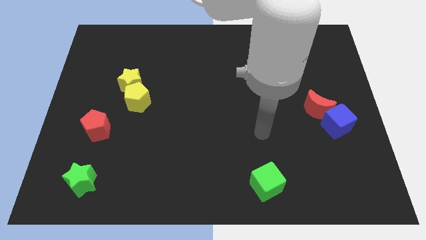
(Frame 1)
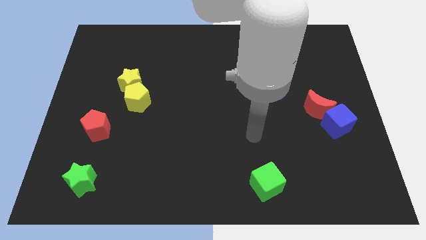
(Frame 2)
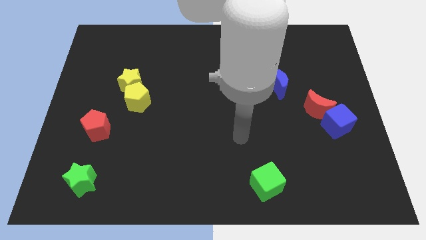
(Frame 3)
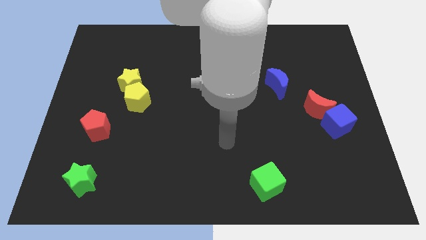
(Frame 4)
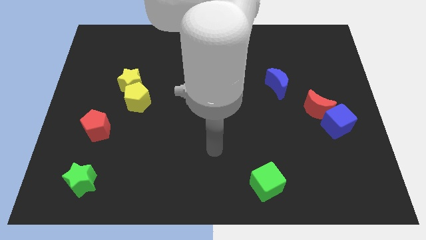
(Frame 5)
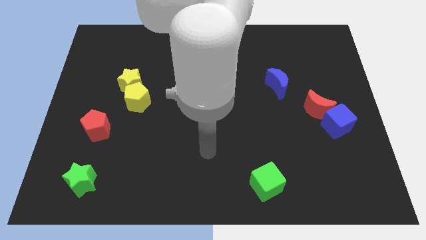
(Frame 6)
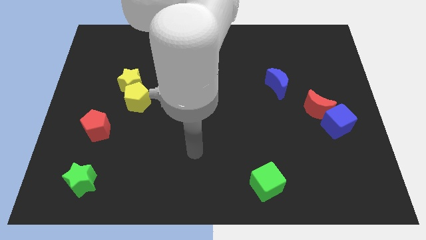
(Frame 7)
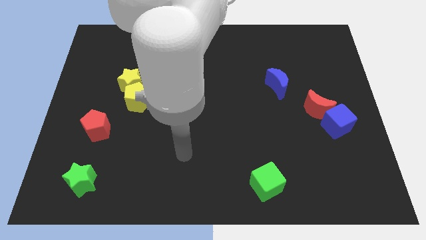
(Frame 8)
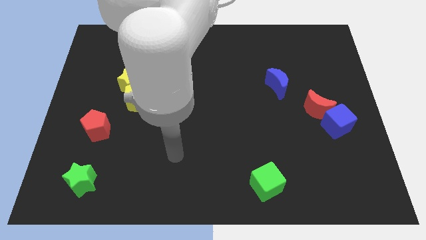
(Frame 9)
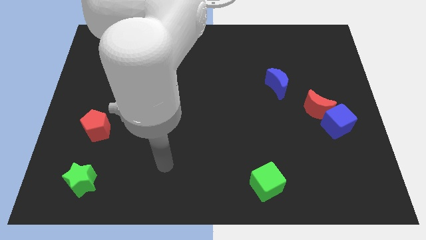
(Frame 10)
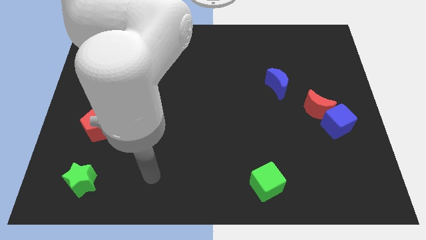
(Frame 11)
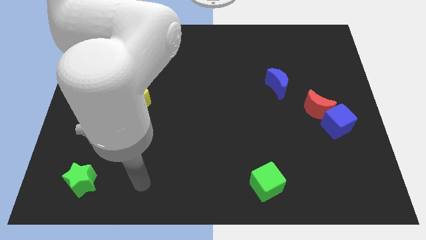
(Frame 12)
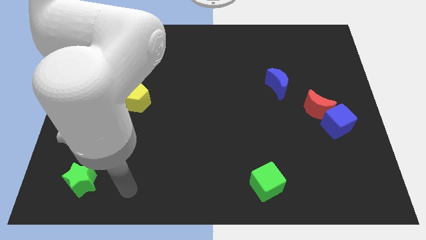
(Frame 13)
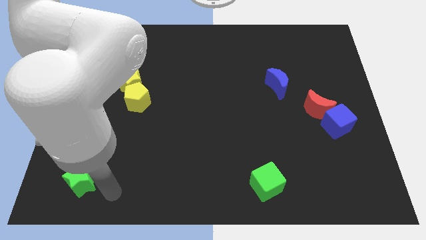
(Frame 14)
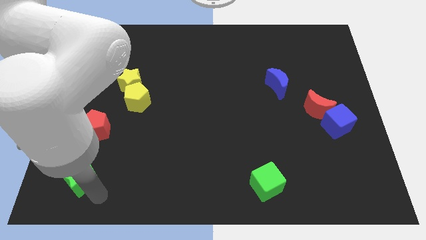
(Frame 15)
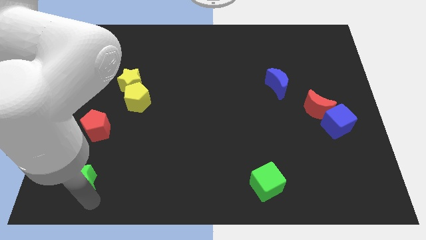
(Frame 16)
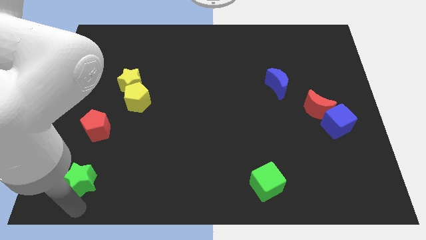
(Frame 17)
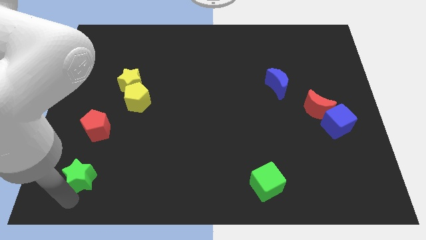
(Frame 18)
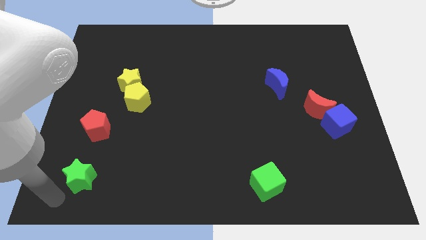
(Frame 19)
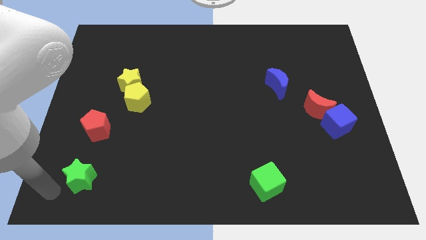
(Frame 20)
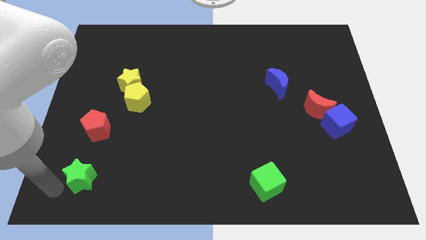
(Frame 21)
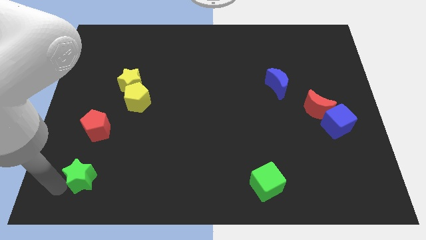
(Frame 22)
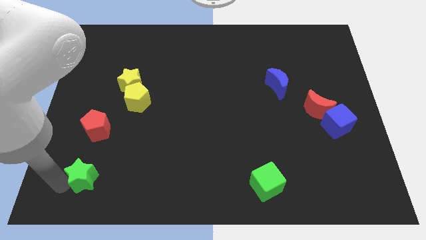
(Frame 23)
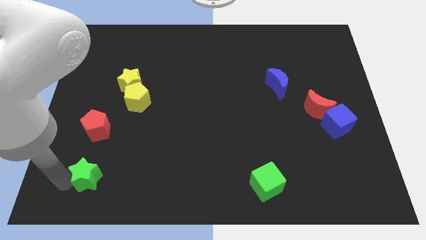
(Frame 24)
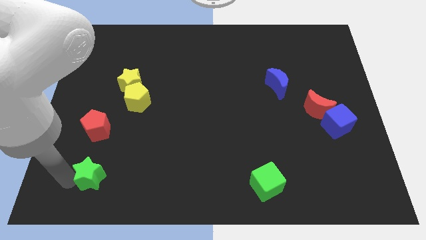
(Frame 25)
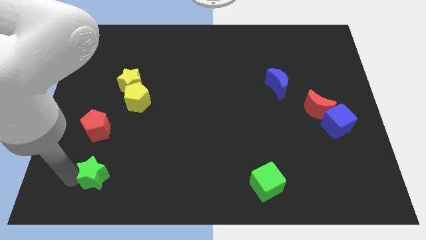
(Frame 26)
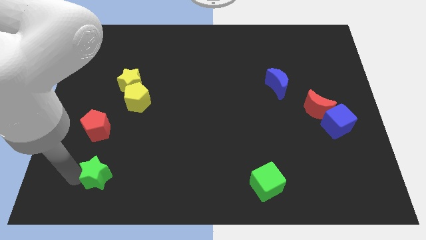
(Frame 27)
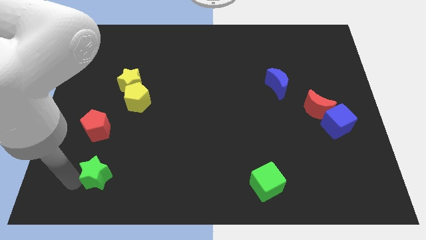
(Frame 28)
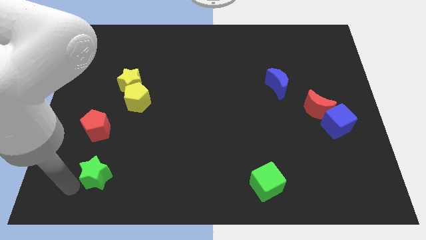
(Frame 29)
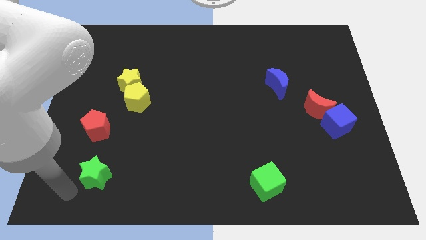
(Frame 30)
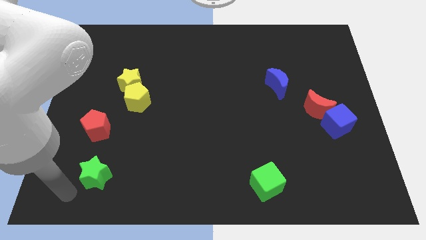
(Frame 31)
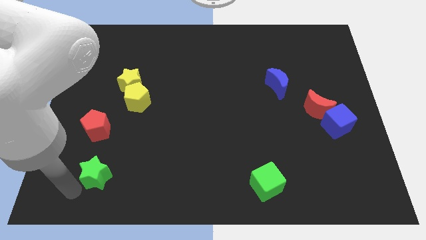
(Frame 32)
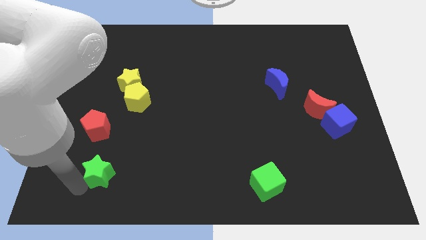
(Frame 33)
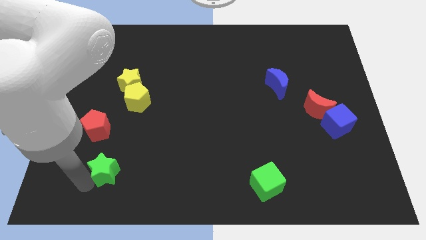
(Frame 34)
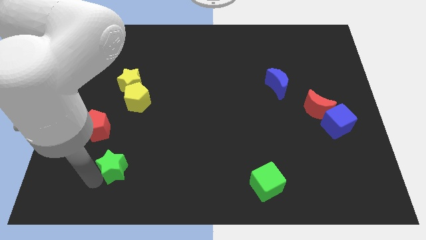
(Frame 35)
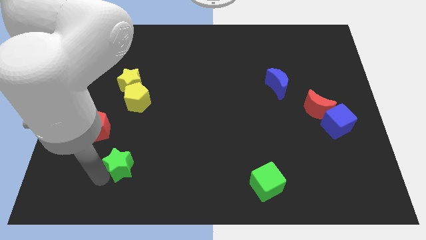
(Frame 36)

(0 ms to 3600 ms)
slide the green star up and right a bit

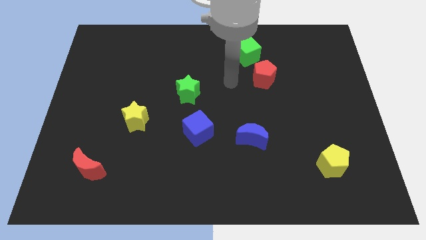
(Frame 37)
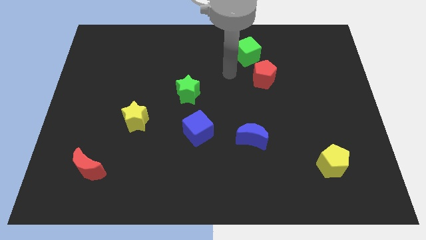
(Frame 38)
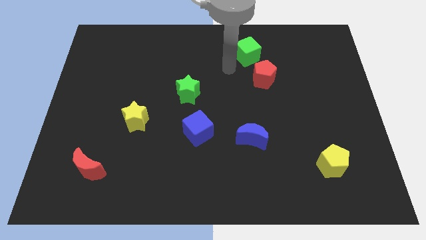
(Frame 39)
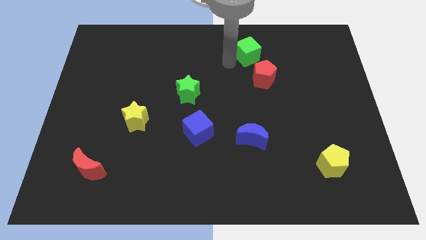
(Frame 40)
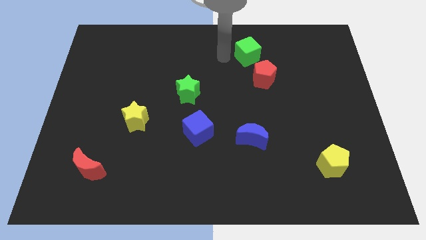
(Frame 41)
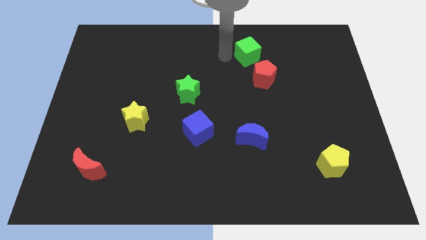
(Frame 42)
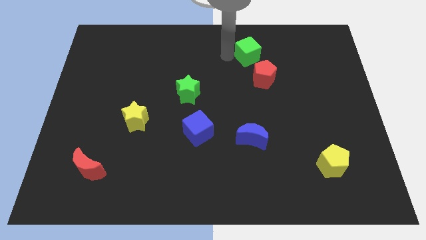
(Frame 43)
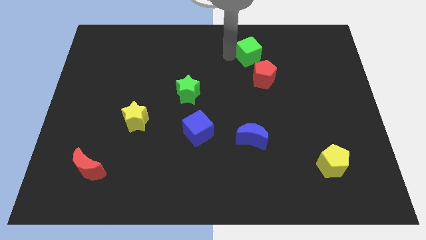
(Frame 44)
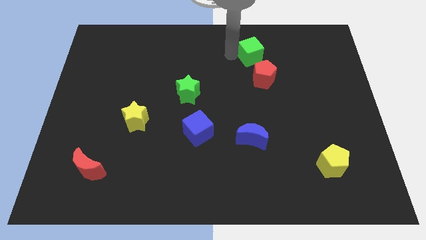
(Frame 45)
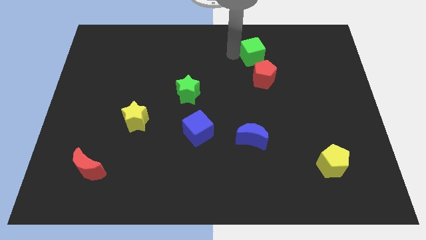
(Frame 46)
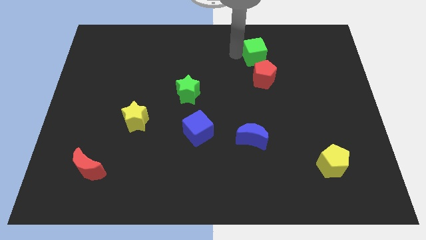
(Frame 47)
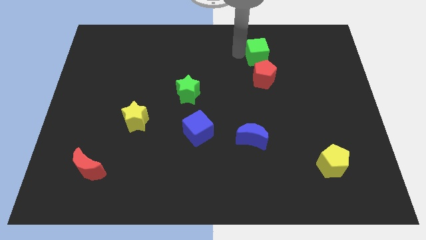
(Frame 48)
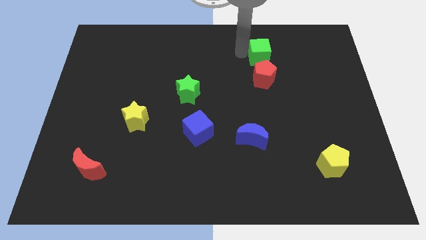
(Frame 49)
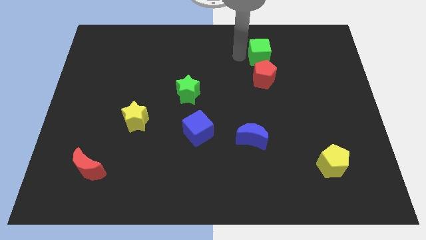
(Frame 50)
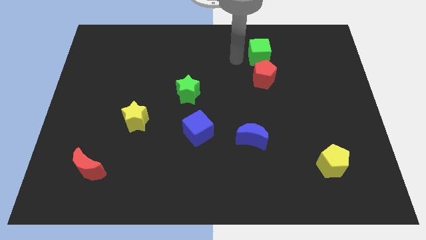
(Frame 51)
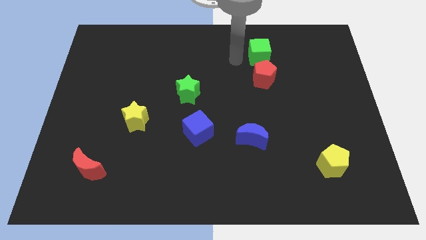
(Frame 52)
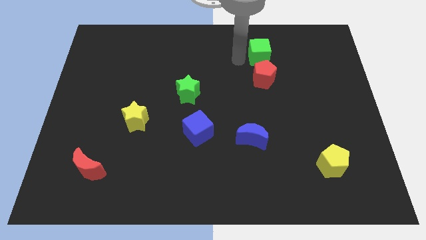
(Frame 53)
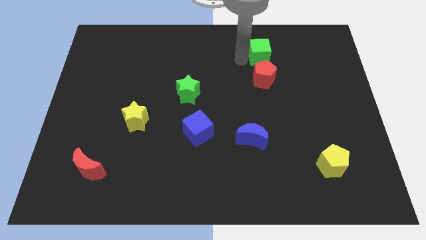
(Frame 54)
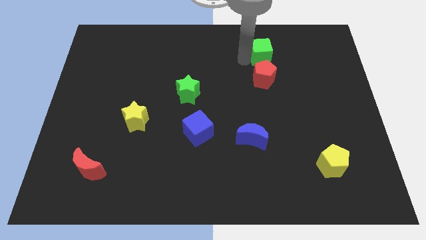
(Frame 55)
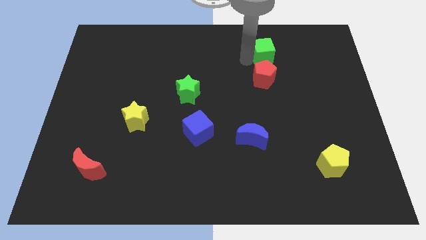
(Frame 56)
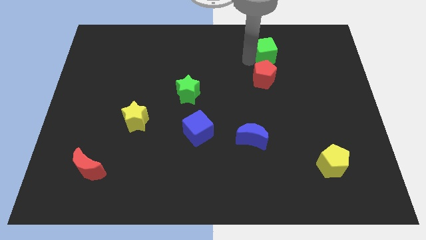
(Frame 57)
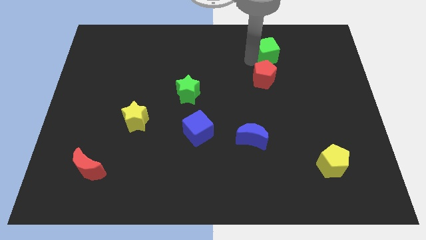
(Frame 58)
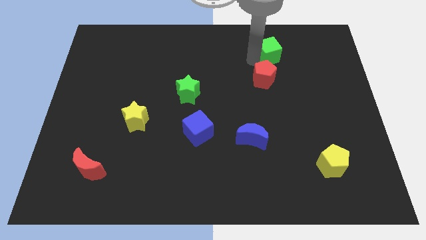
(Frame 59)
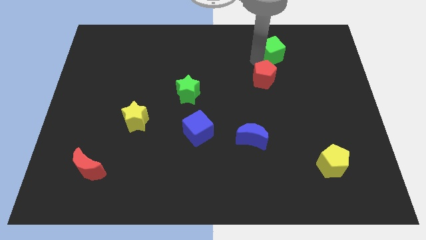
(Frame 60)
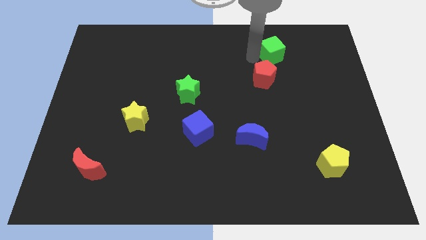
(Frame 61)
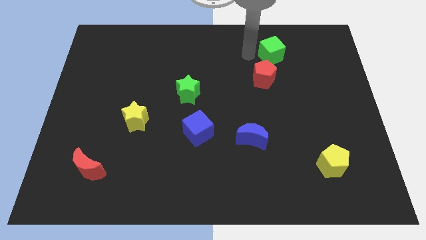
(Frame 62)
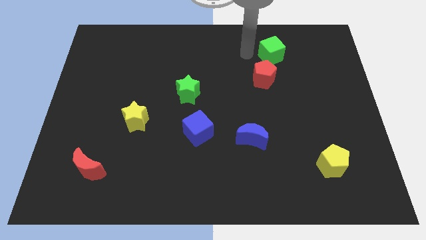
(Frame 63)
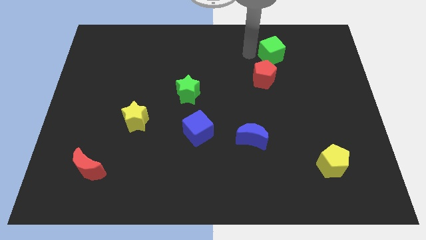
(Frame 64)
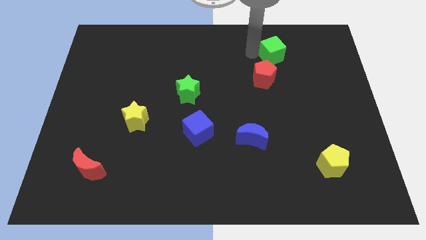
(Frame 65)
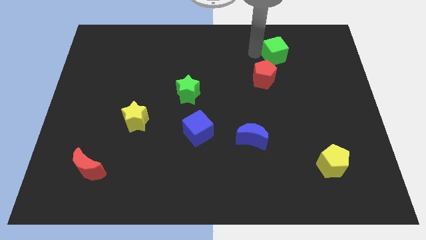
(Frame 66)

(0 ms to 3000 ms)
slightly push the green cube right

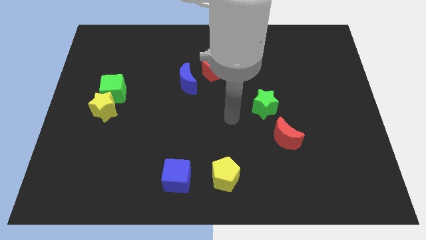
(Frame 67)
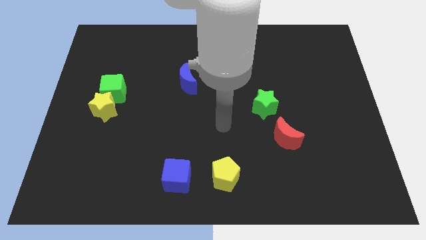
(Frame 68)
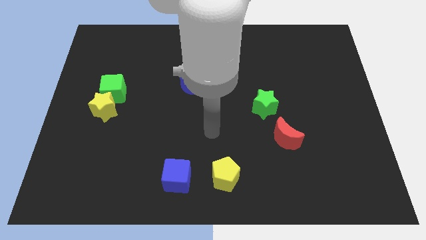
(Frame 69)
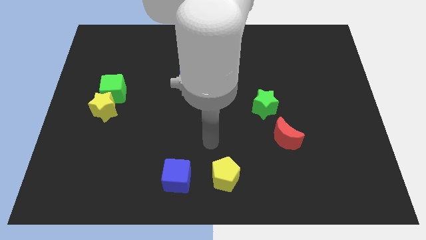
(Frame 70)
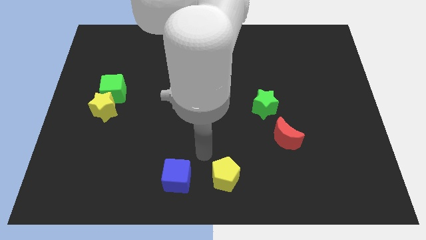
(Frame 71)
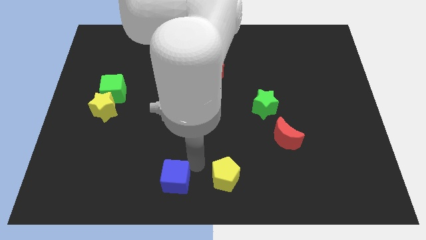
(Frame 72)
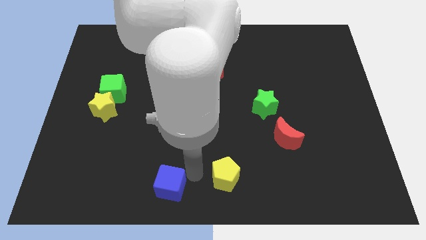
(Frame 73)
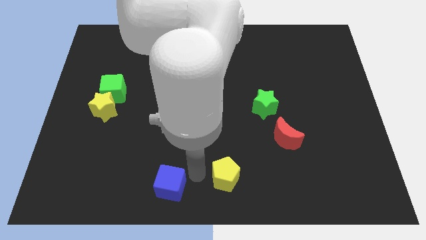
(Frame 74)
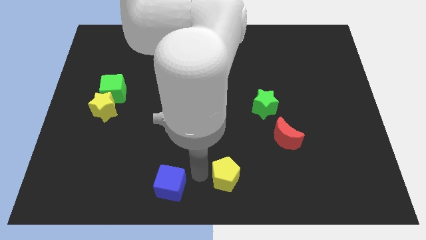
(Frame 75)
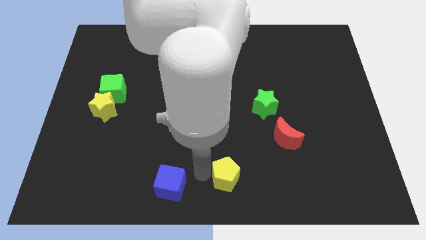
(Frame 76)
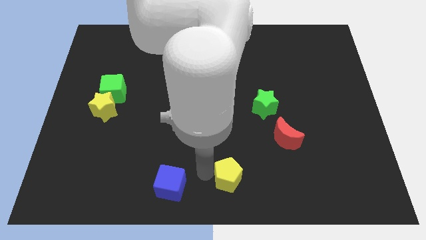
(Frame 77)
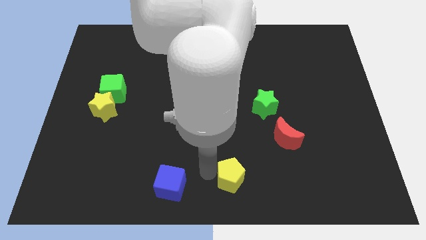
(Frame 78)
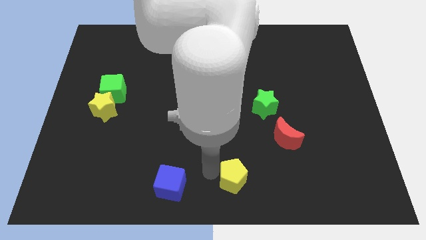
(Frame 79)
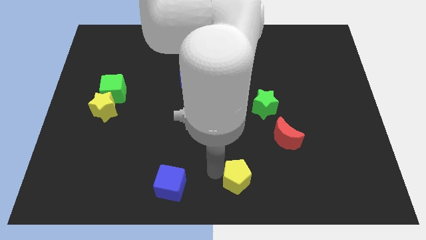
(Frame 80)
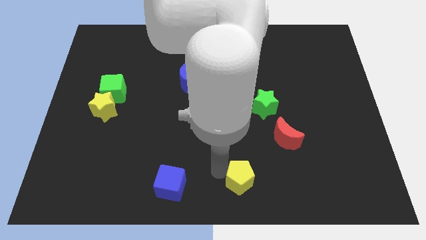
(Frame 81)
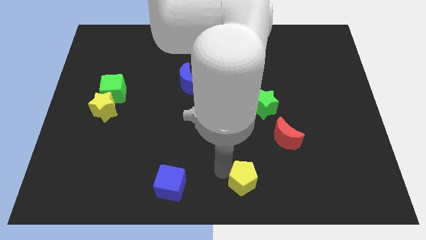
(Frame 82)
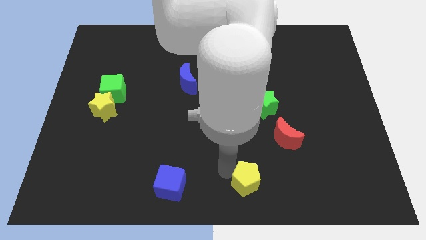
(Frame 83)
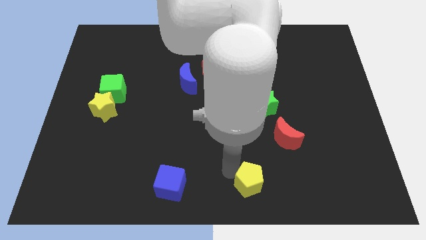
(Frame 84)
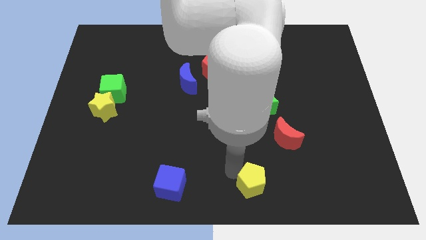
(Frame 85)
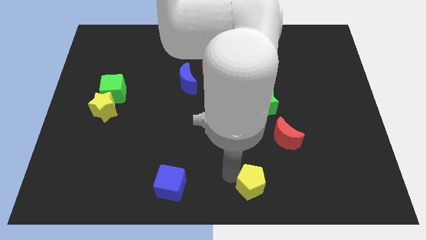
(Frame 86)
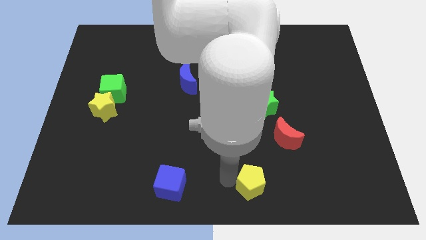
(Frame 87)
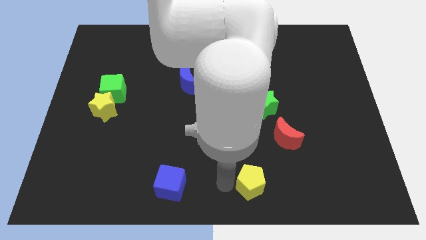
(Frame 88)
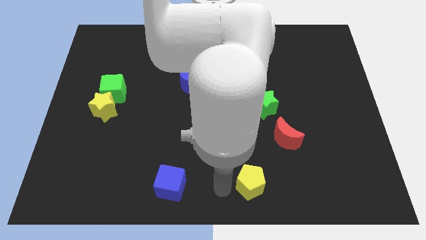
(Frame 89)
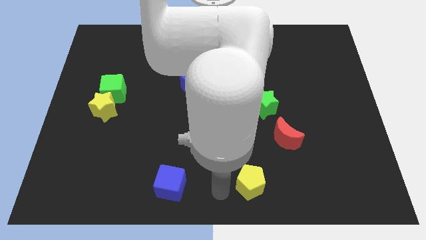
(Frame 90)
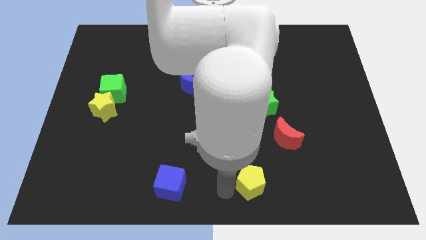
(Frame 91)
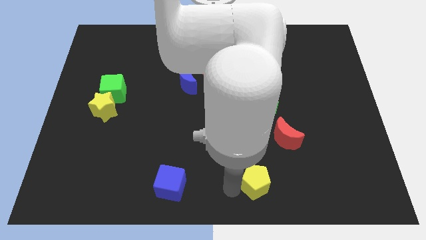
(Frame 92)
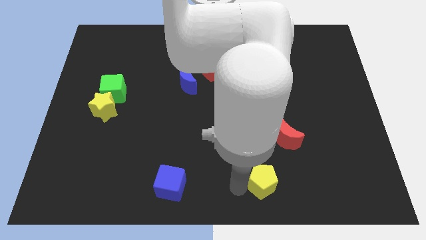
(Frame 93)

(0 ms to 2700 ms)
slightly slide the yellow pentagon to the right
